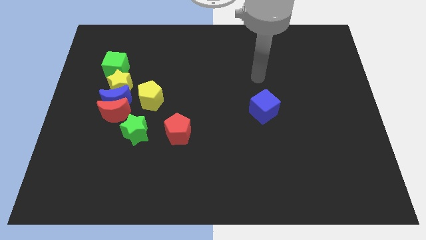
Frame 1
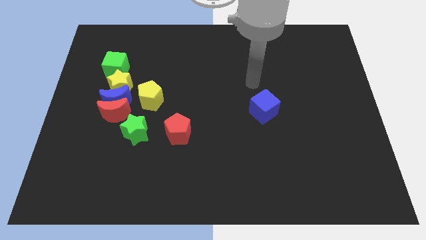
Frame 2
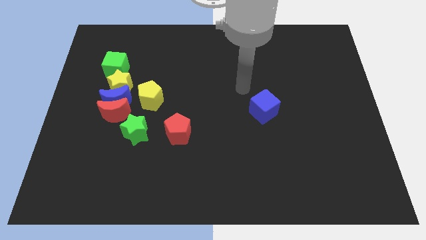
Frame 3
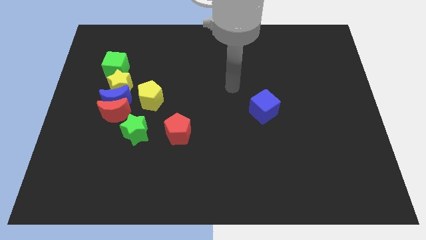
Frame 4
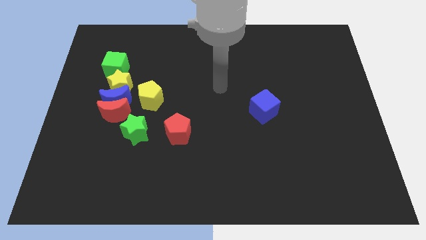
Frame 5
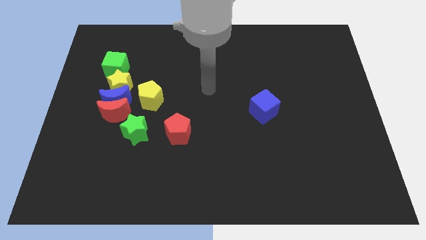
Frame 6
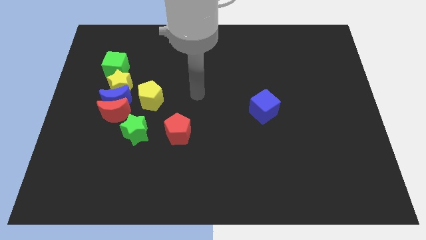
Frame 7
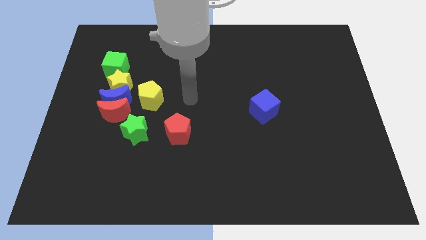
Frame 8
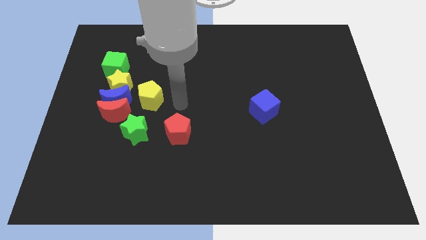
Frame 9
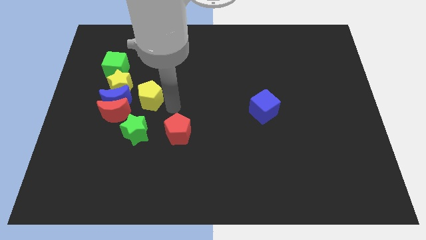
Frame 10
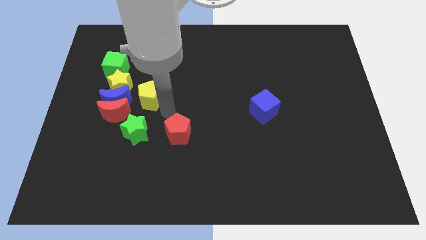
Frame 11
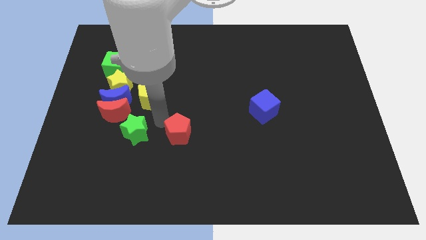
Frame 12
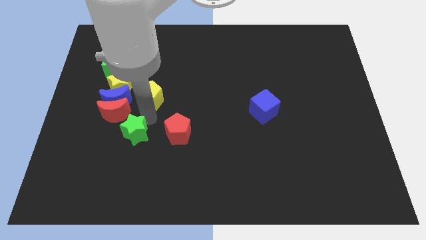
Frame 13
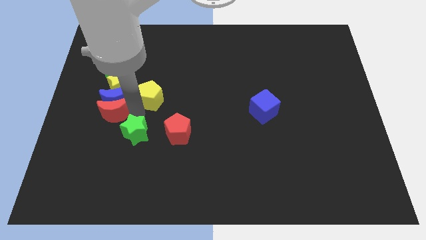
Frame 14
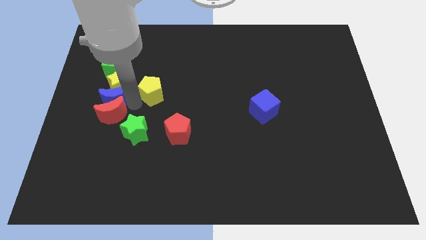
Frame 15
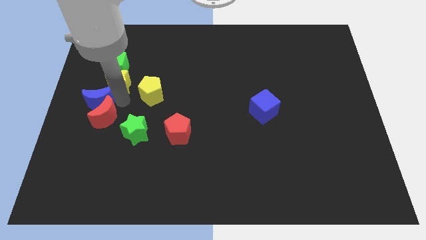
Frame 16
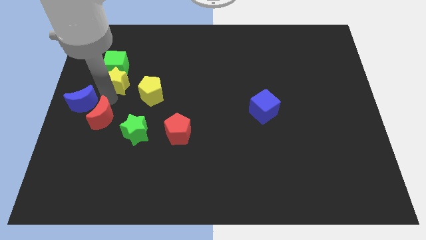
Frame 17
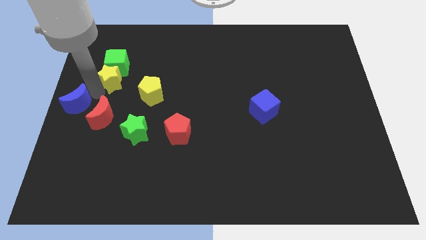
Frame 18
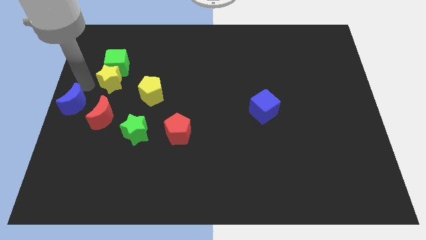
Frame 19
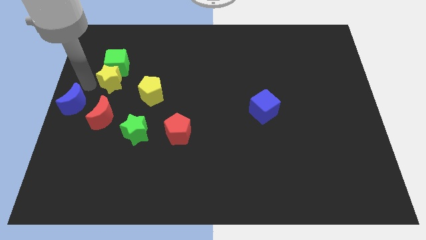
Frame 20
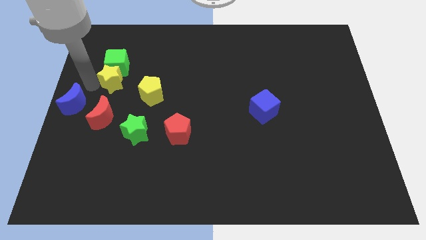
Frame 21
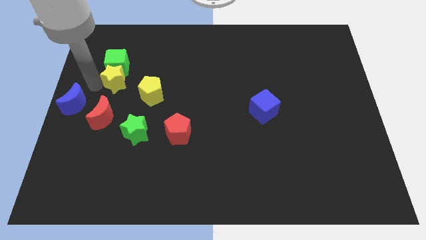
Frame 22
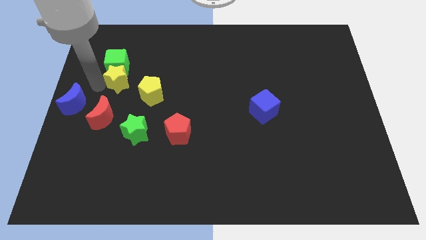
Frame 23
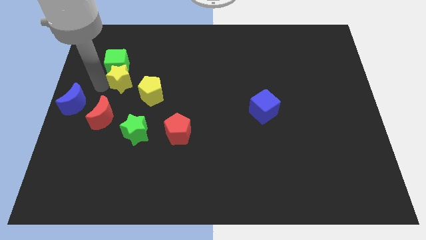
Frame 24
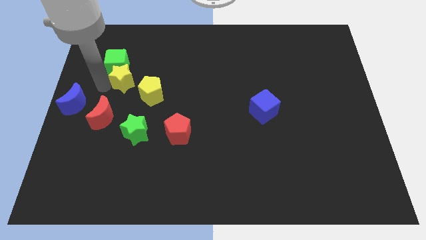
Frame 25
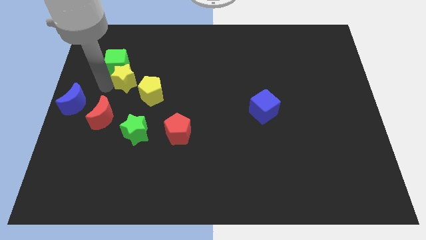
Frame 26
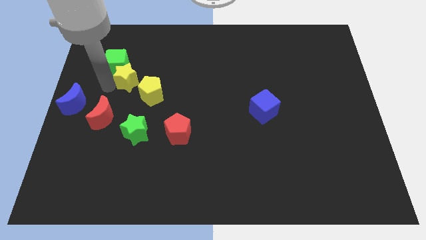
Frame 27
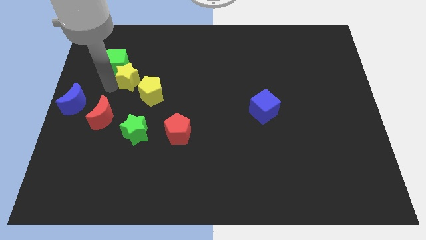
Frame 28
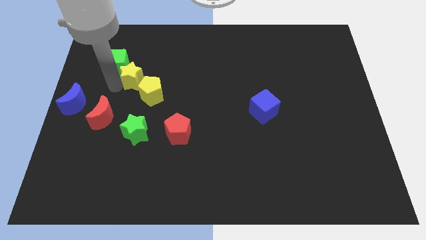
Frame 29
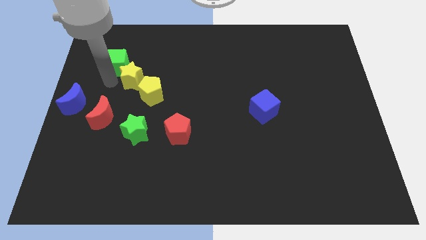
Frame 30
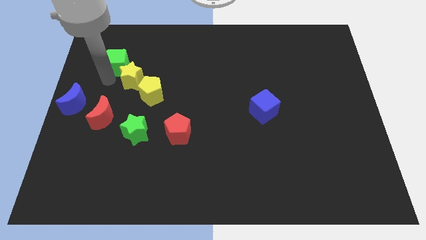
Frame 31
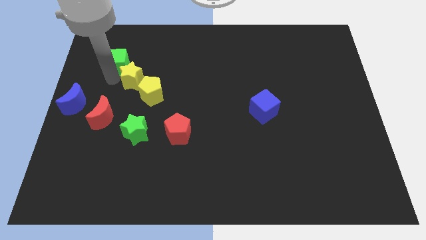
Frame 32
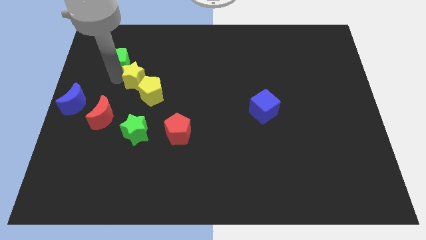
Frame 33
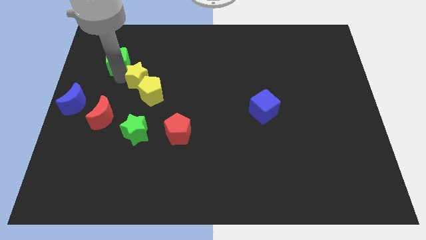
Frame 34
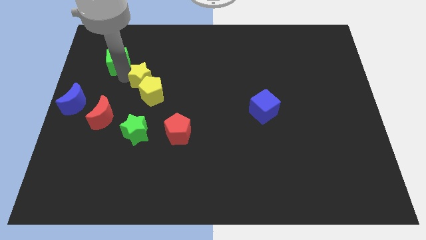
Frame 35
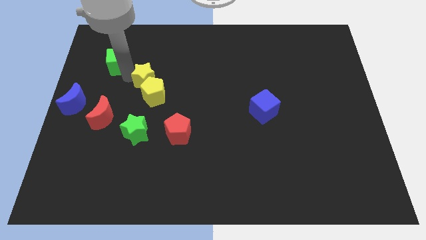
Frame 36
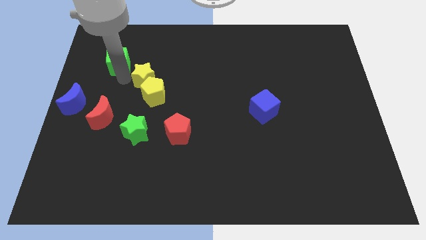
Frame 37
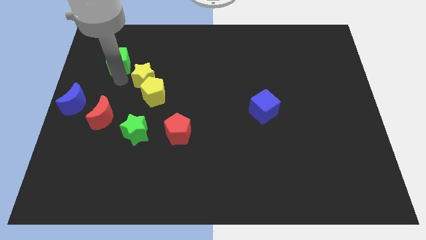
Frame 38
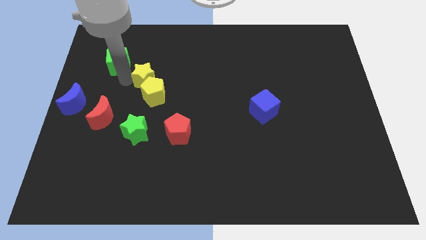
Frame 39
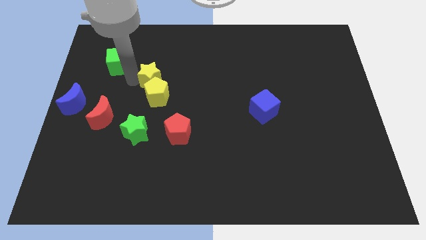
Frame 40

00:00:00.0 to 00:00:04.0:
slide the yellow star somewhat to the right

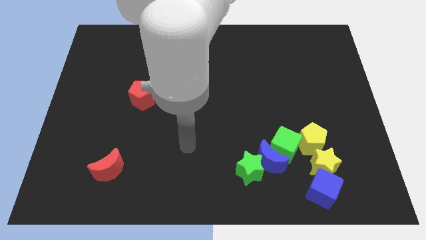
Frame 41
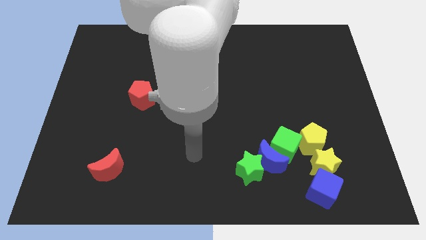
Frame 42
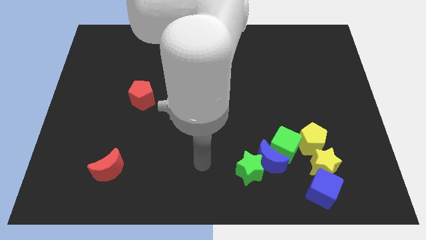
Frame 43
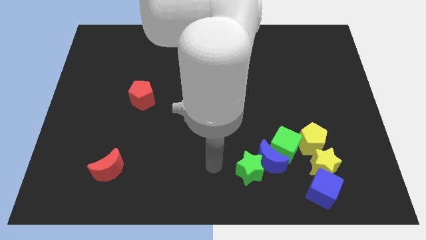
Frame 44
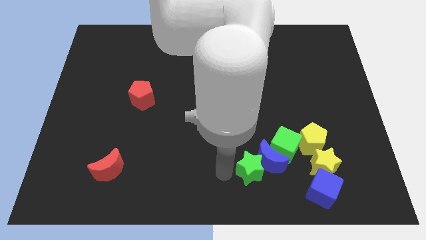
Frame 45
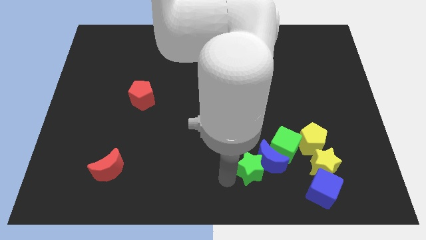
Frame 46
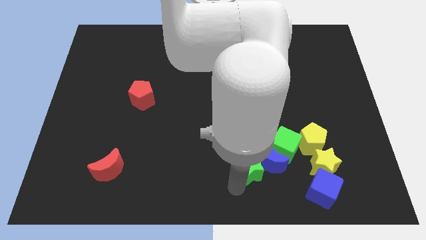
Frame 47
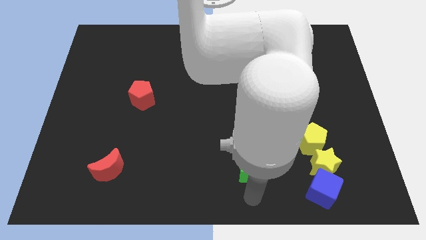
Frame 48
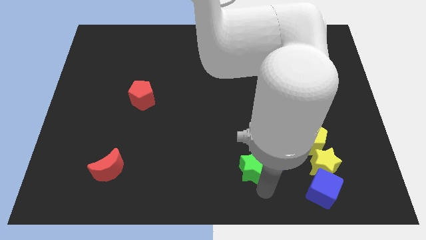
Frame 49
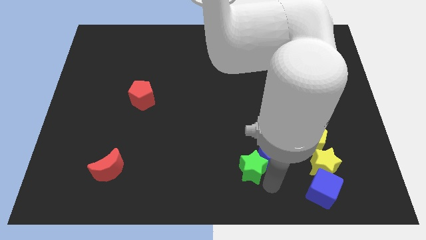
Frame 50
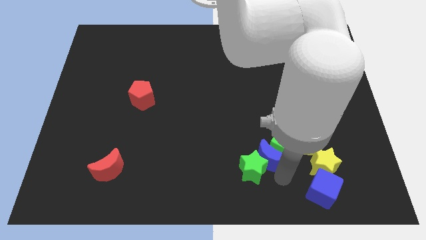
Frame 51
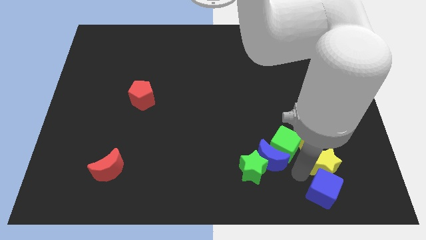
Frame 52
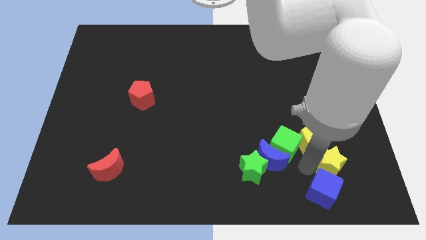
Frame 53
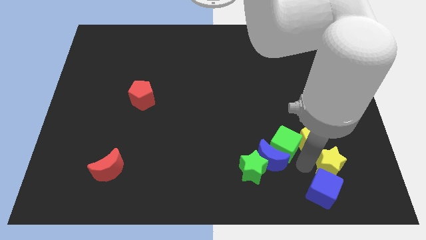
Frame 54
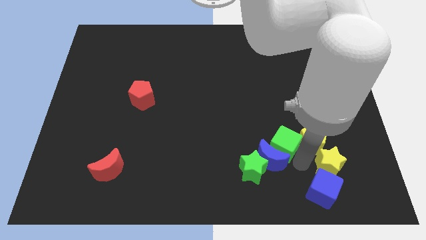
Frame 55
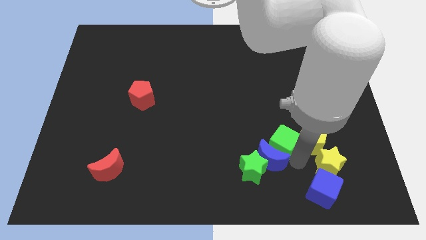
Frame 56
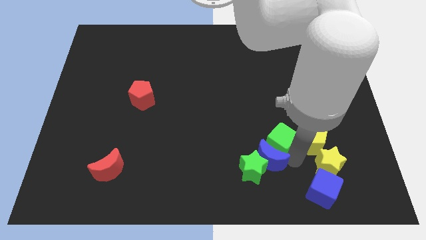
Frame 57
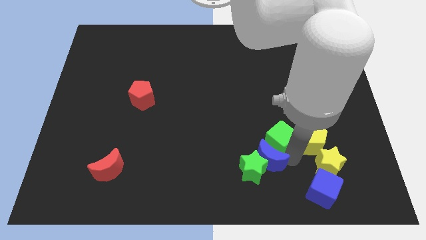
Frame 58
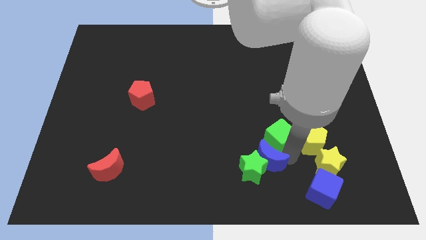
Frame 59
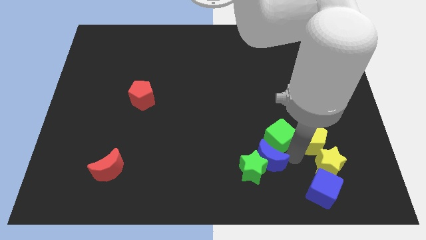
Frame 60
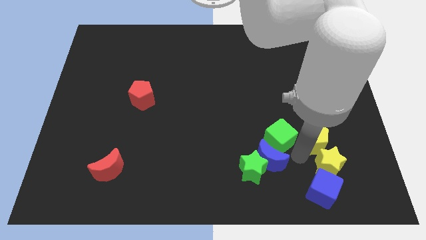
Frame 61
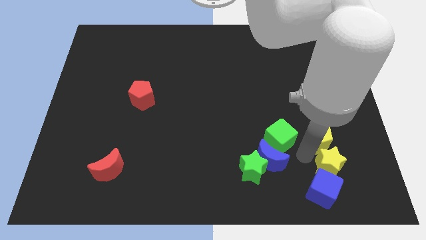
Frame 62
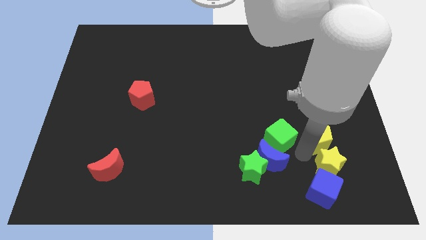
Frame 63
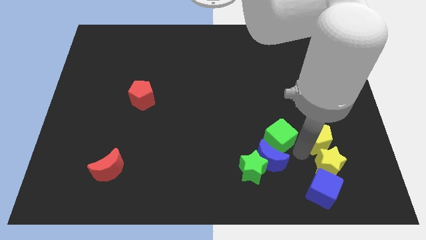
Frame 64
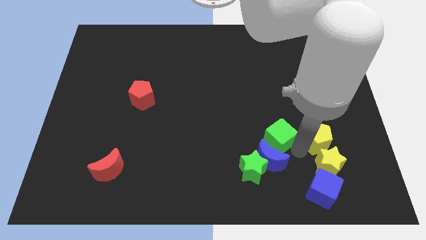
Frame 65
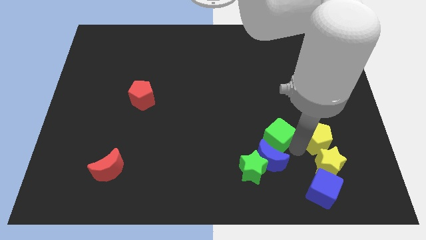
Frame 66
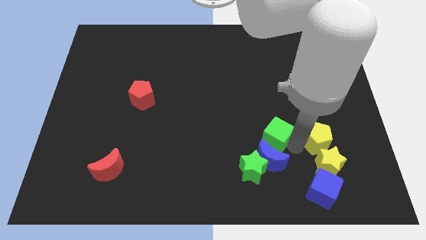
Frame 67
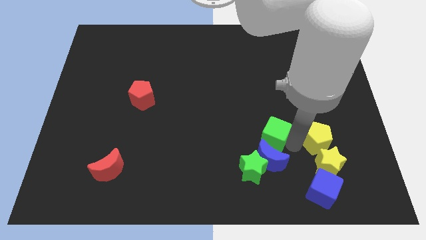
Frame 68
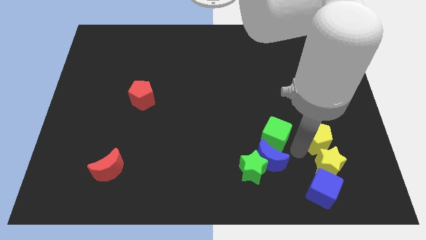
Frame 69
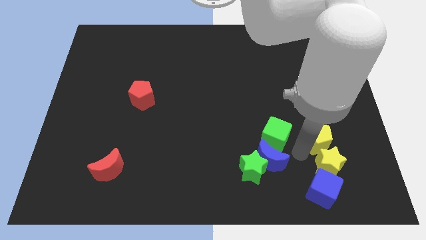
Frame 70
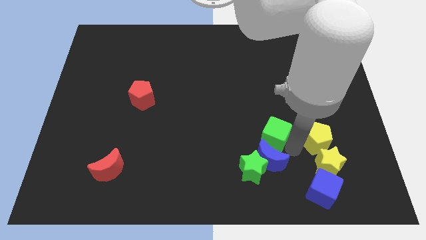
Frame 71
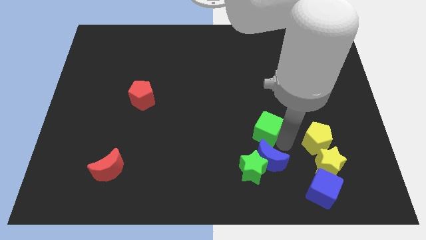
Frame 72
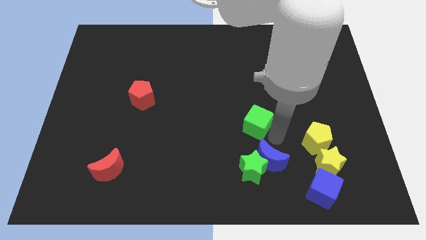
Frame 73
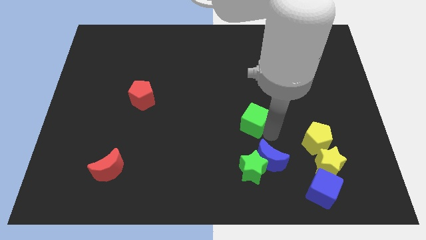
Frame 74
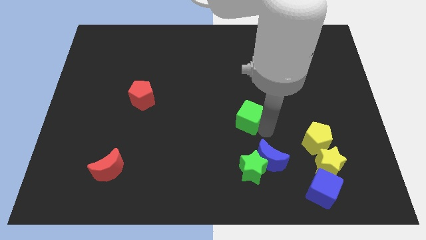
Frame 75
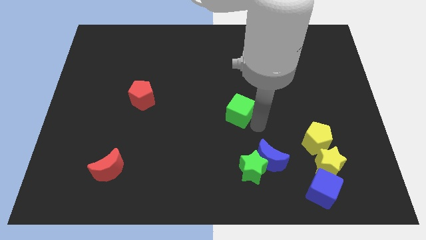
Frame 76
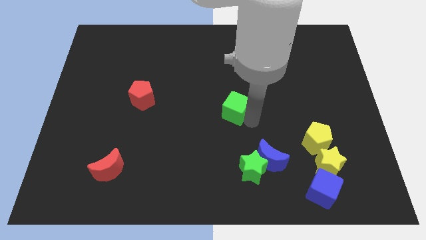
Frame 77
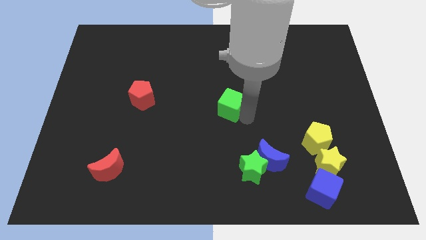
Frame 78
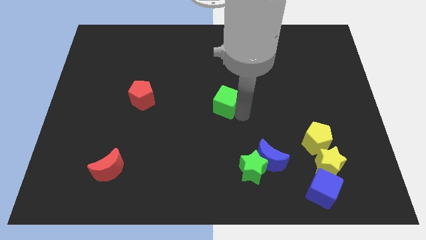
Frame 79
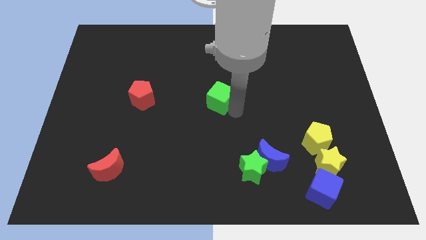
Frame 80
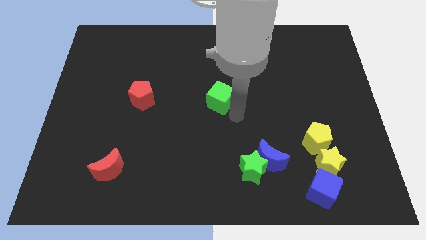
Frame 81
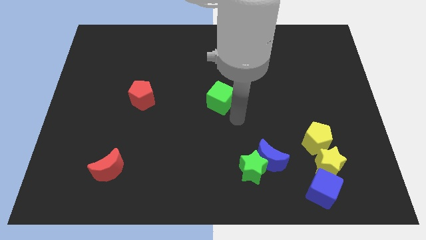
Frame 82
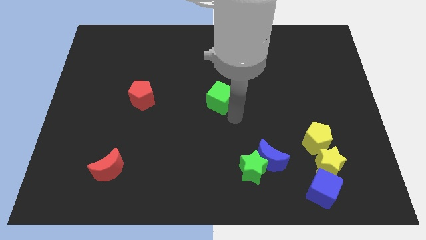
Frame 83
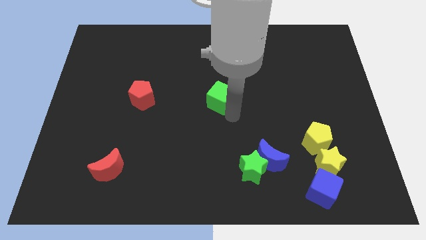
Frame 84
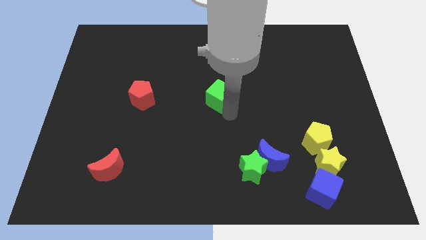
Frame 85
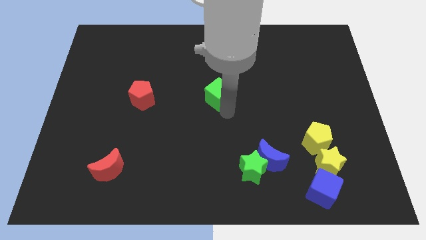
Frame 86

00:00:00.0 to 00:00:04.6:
push the green cube upwards and to the left diagonally
